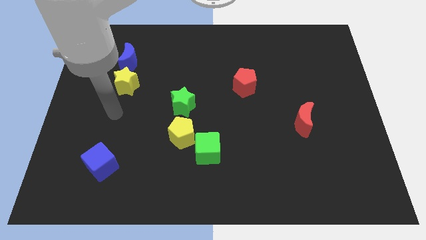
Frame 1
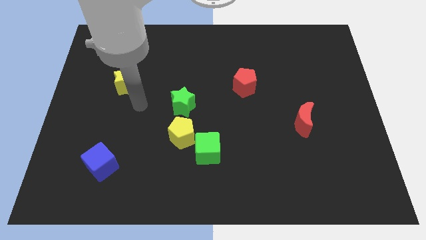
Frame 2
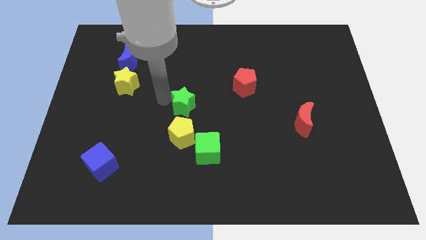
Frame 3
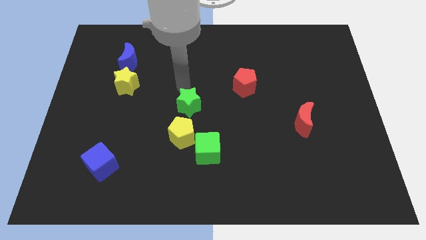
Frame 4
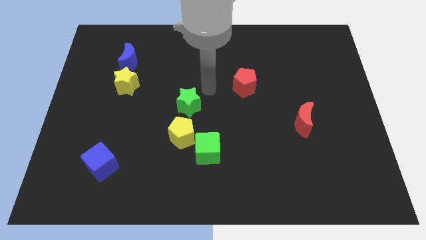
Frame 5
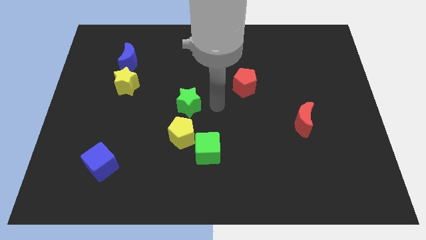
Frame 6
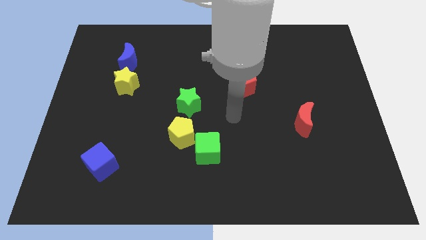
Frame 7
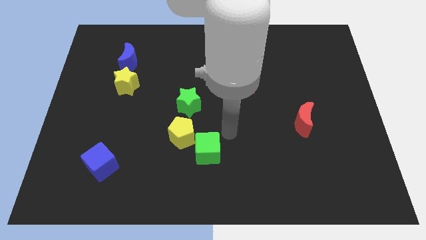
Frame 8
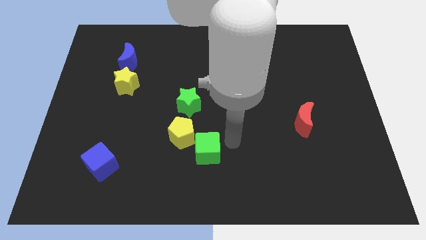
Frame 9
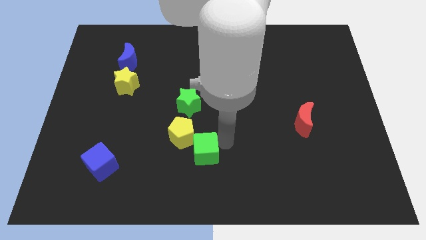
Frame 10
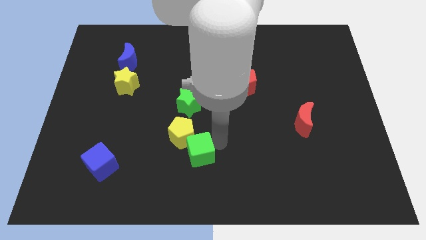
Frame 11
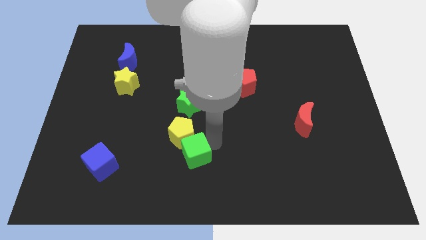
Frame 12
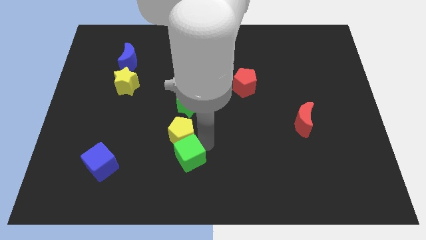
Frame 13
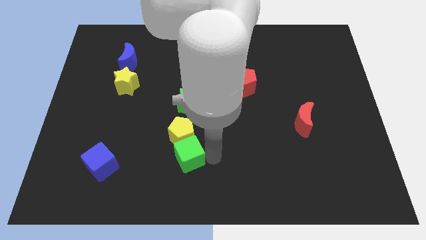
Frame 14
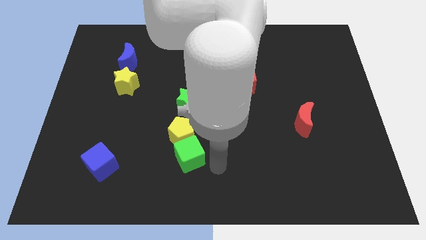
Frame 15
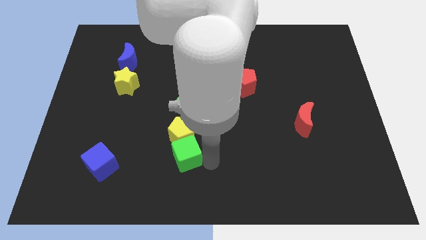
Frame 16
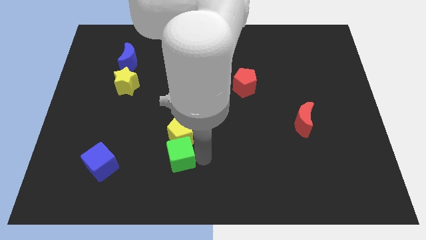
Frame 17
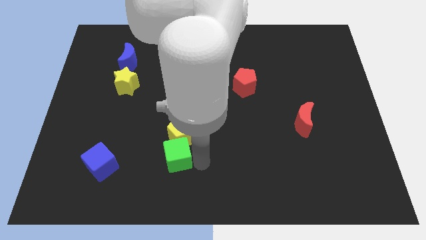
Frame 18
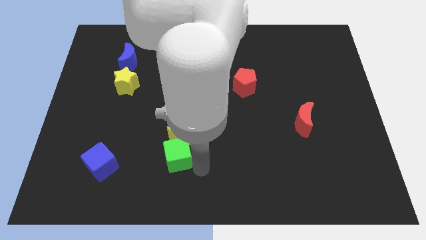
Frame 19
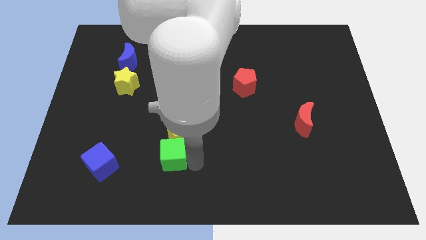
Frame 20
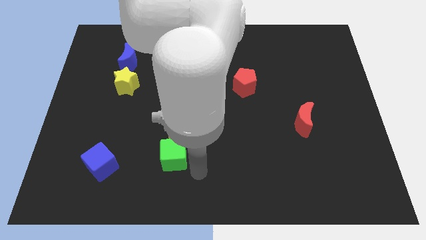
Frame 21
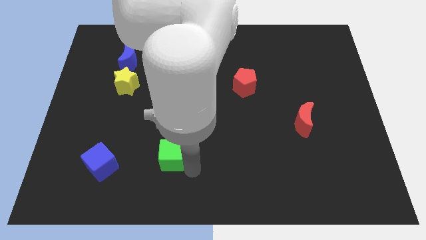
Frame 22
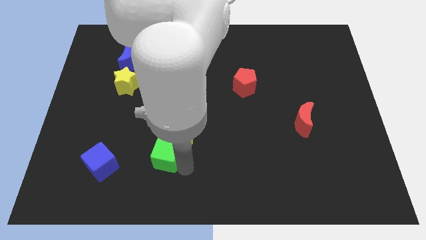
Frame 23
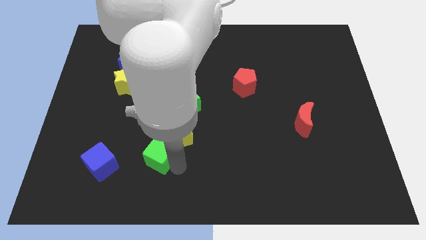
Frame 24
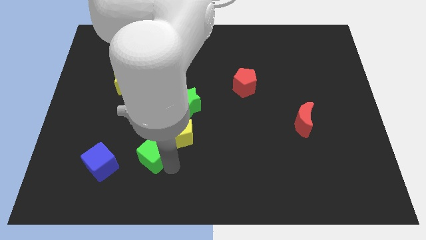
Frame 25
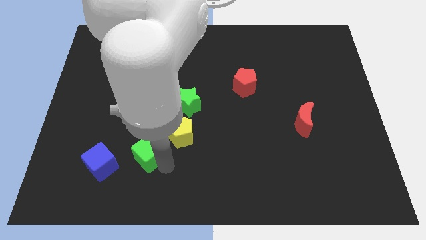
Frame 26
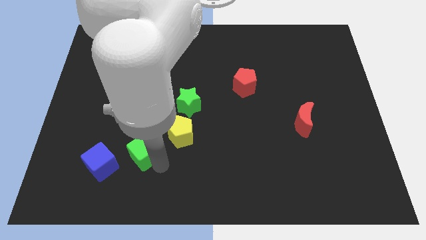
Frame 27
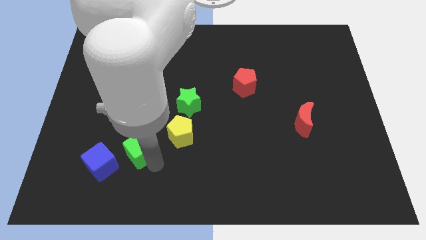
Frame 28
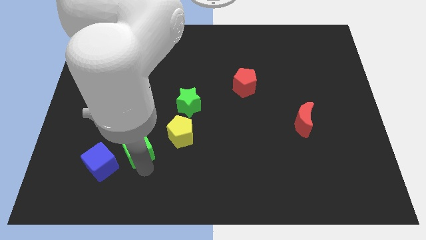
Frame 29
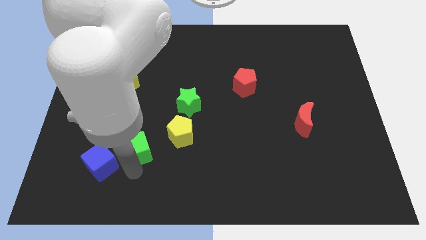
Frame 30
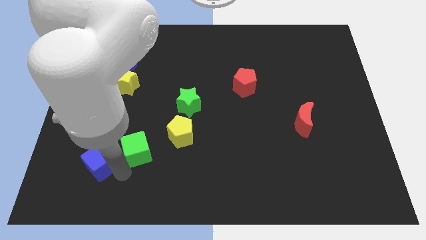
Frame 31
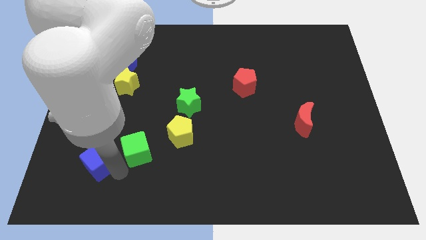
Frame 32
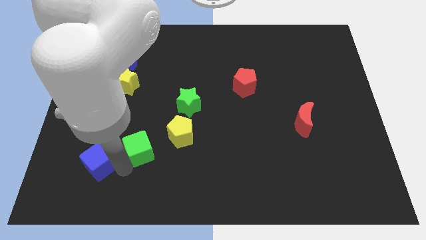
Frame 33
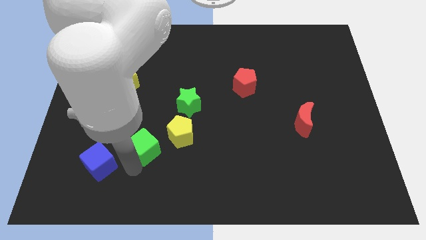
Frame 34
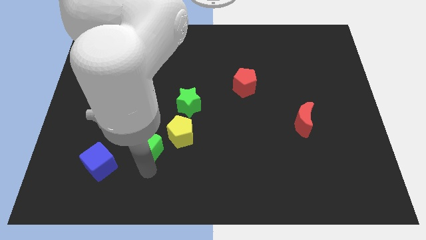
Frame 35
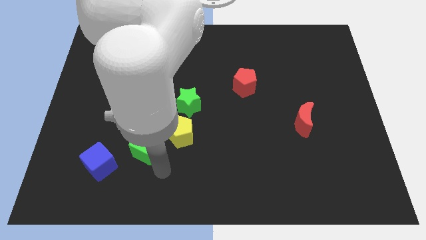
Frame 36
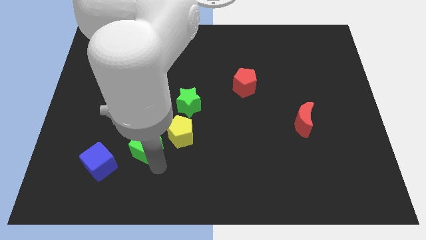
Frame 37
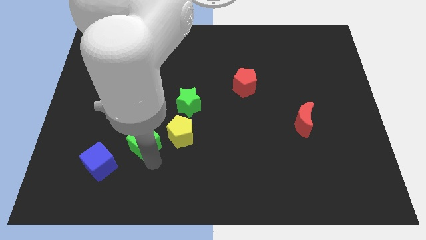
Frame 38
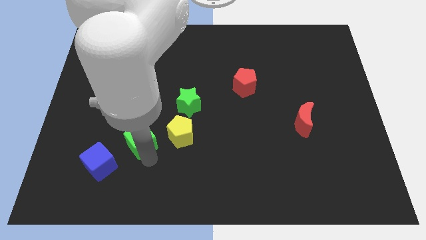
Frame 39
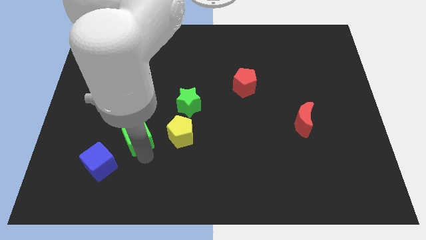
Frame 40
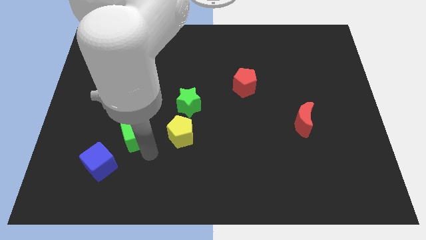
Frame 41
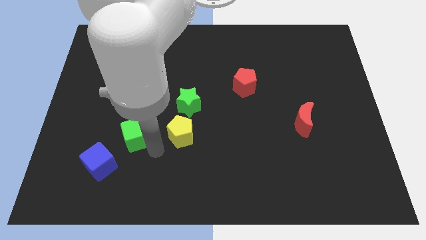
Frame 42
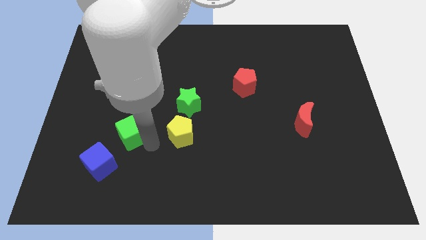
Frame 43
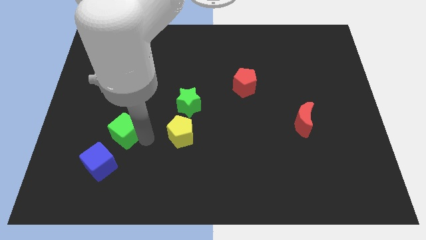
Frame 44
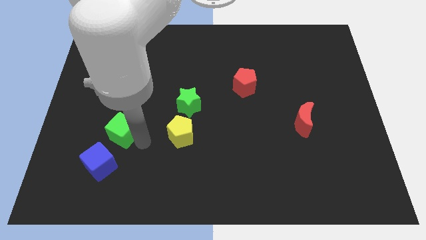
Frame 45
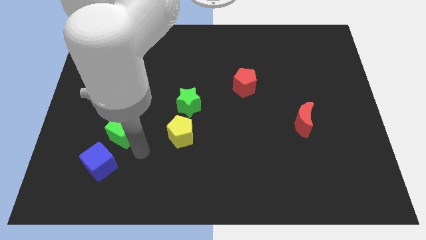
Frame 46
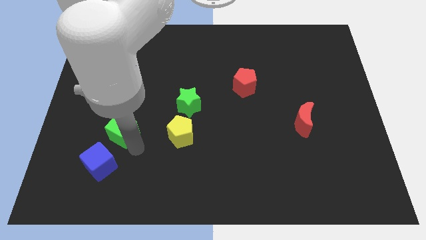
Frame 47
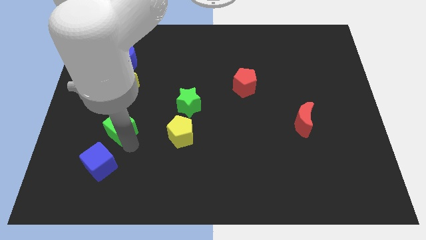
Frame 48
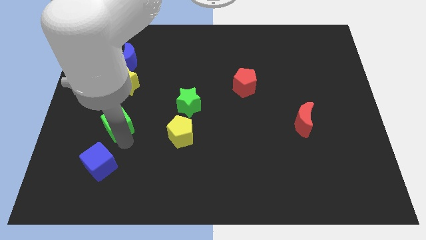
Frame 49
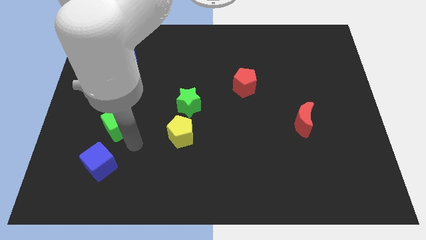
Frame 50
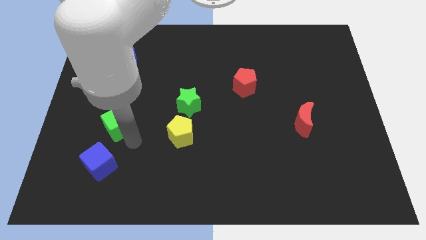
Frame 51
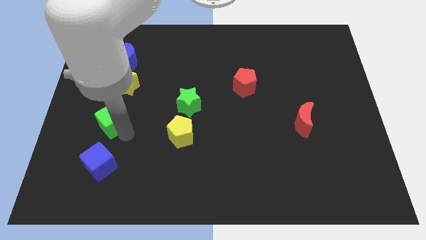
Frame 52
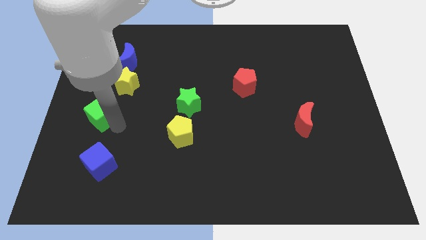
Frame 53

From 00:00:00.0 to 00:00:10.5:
push the green cube to the left side

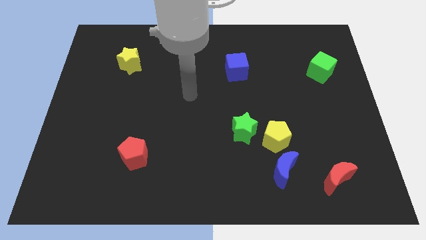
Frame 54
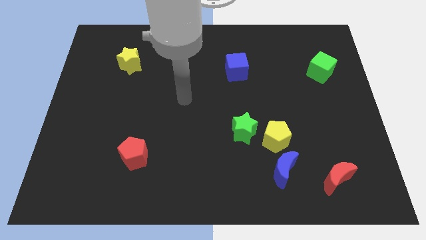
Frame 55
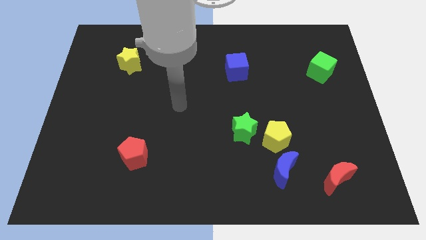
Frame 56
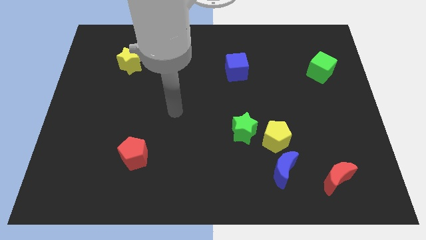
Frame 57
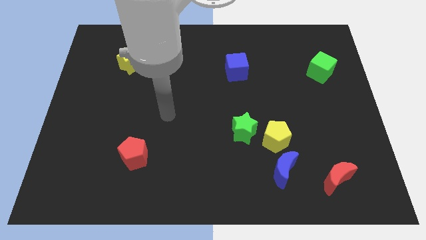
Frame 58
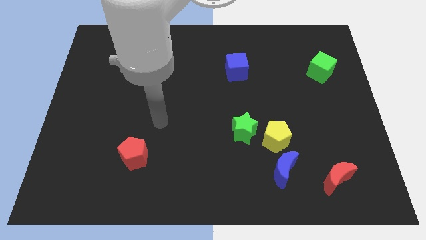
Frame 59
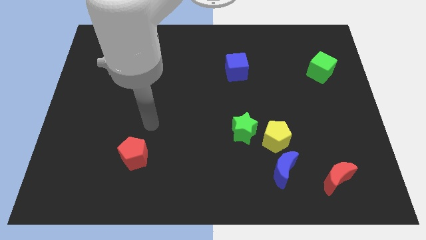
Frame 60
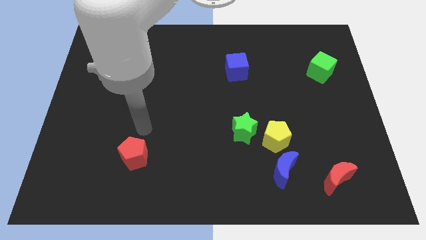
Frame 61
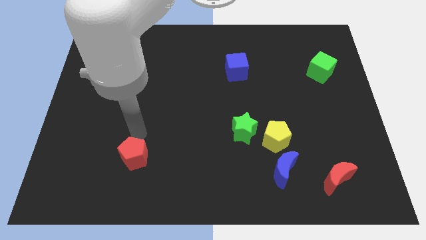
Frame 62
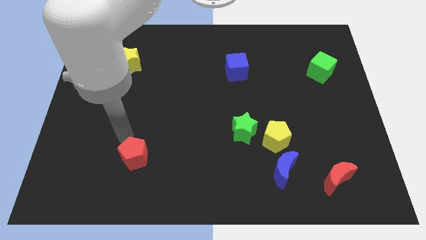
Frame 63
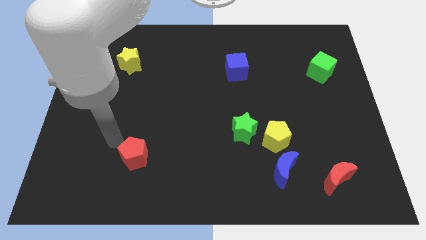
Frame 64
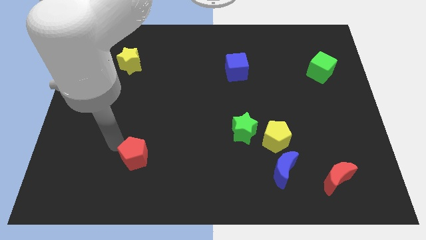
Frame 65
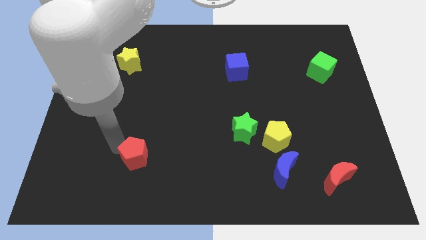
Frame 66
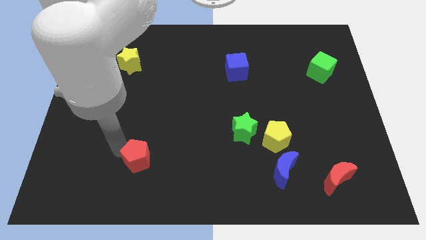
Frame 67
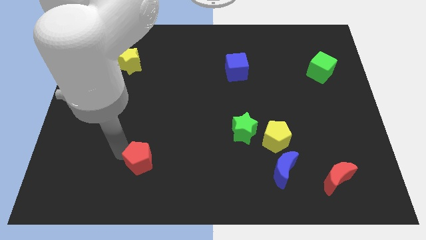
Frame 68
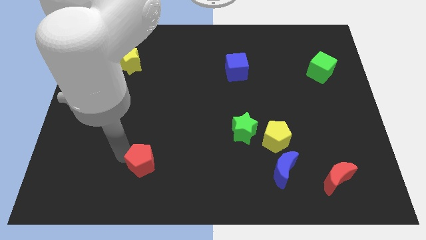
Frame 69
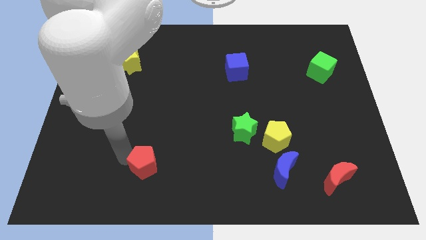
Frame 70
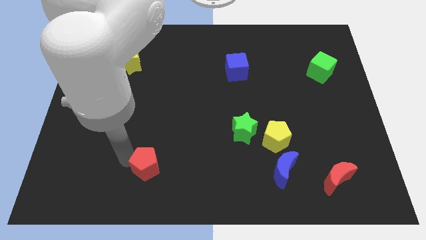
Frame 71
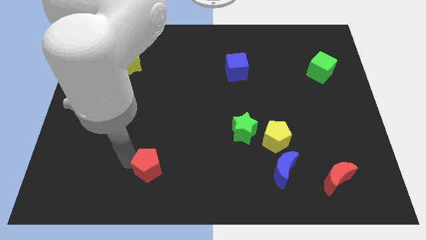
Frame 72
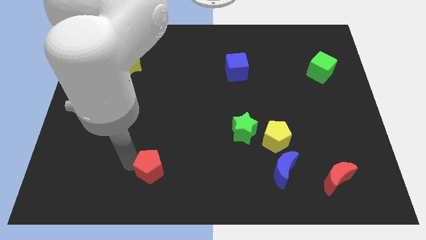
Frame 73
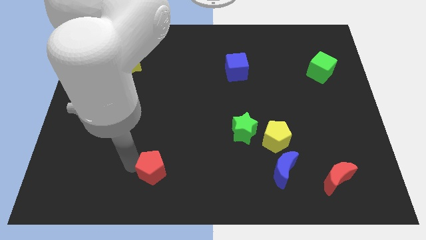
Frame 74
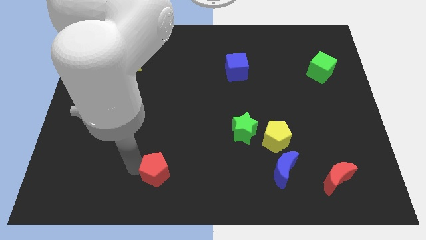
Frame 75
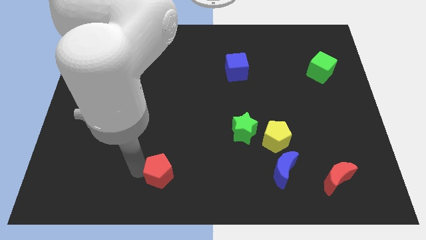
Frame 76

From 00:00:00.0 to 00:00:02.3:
put the red pentagon to the bottom side

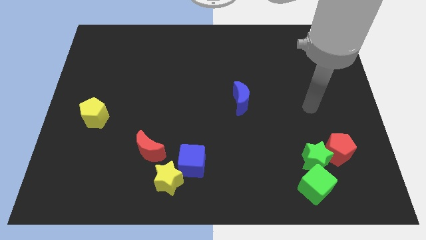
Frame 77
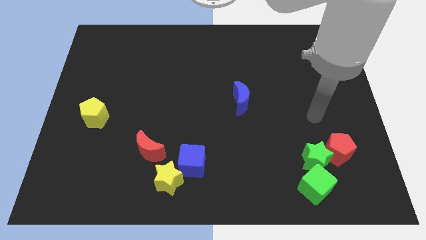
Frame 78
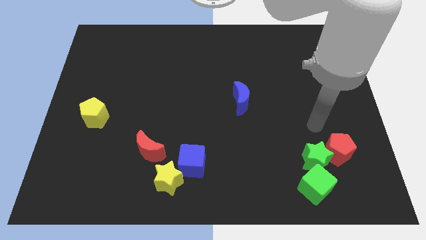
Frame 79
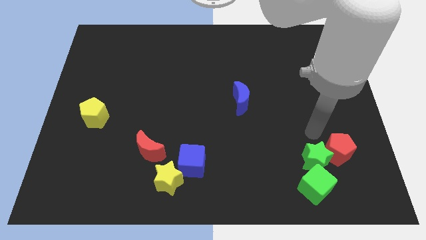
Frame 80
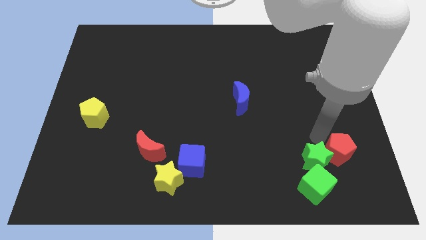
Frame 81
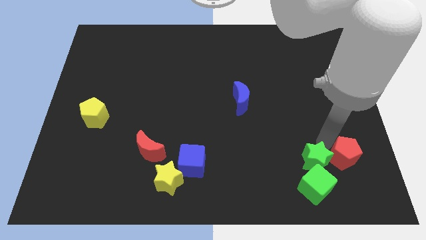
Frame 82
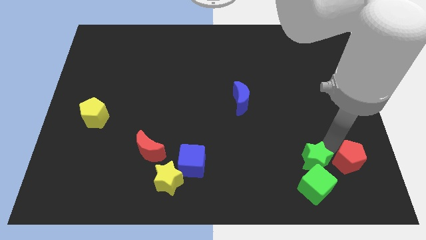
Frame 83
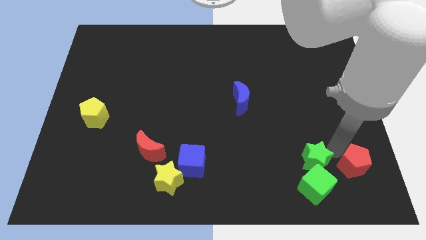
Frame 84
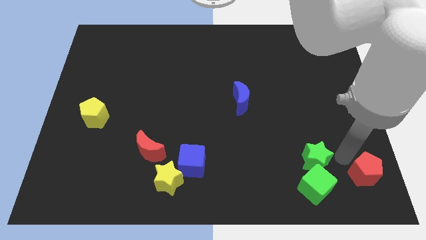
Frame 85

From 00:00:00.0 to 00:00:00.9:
move the red pentagon to the bottom right of the board
